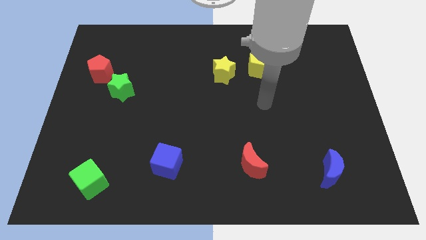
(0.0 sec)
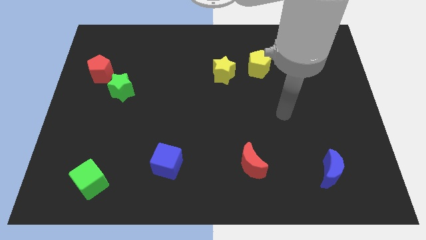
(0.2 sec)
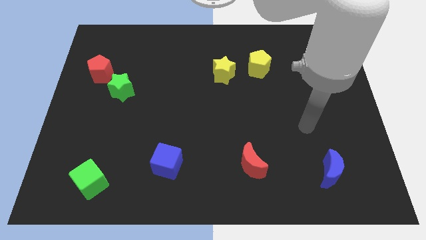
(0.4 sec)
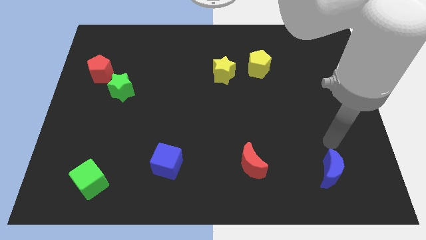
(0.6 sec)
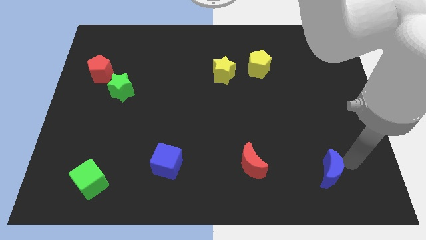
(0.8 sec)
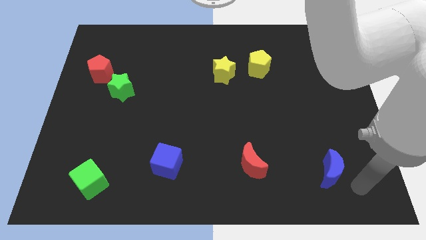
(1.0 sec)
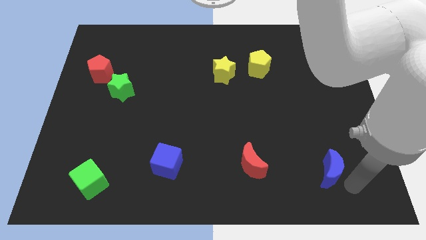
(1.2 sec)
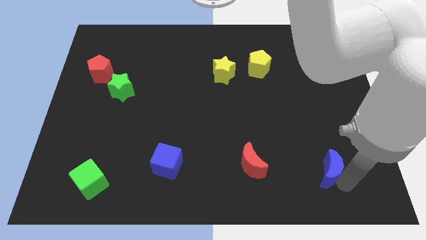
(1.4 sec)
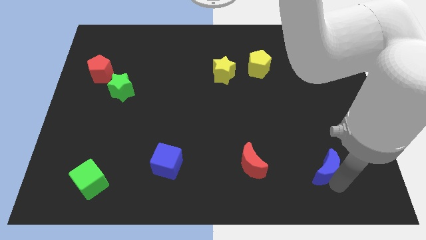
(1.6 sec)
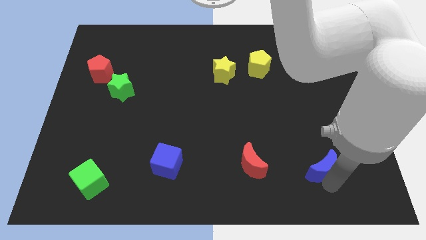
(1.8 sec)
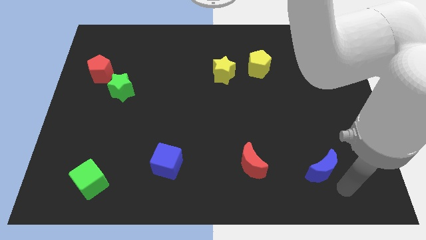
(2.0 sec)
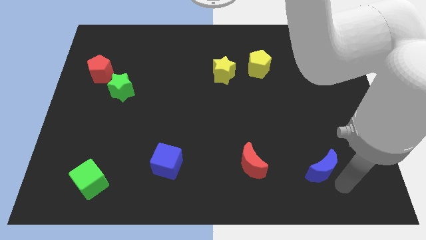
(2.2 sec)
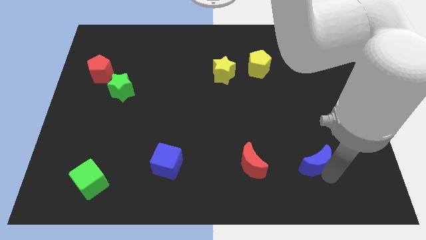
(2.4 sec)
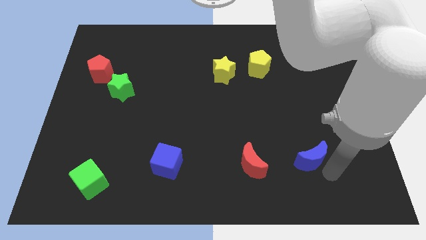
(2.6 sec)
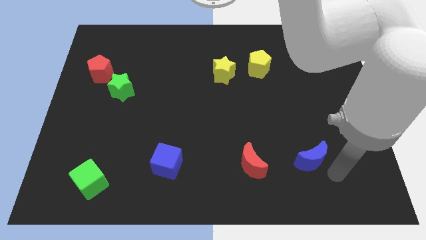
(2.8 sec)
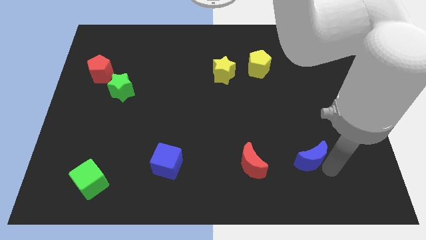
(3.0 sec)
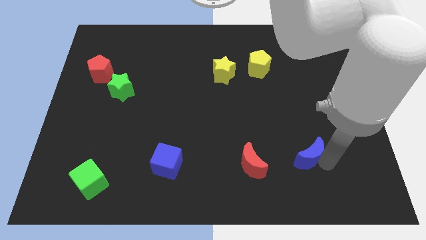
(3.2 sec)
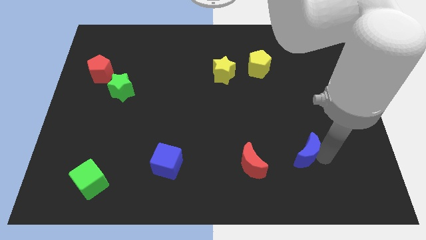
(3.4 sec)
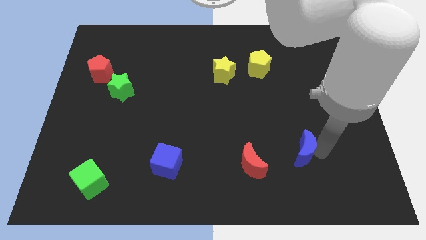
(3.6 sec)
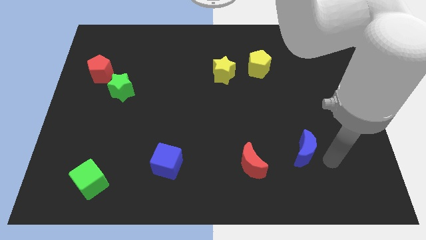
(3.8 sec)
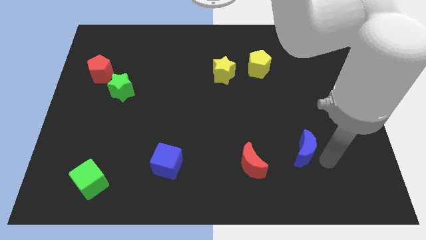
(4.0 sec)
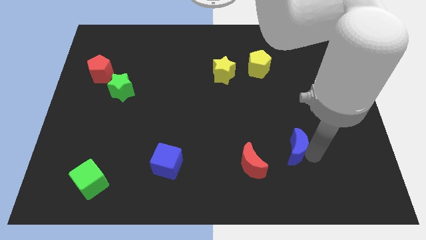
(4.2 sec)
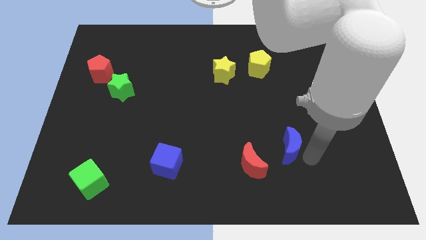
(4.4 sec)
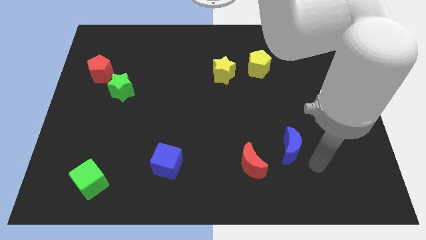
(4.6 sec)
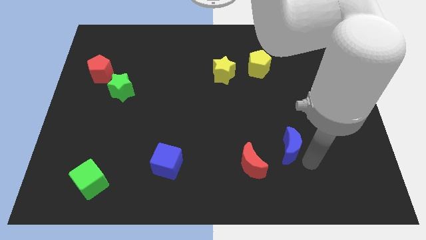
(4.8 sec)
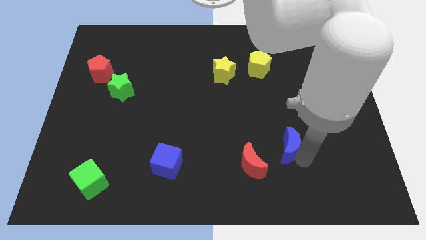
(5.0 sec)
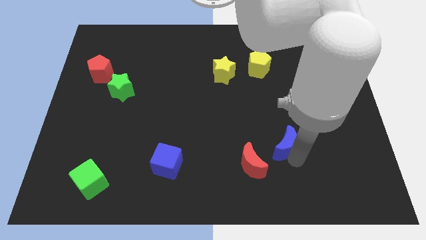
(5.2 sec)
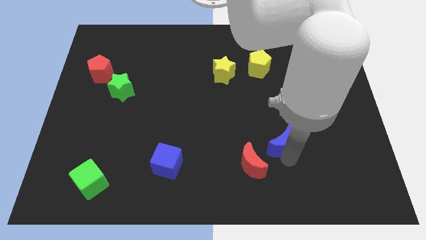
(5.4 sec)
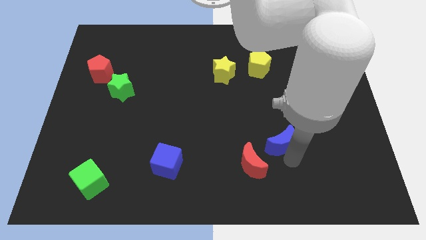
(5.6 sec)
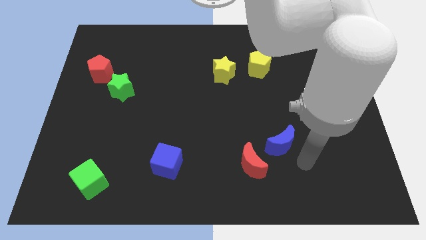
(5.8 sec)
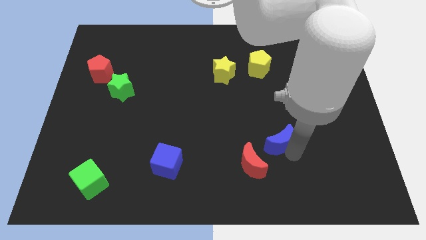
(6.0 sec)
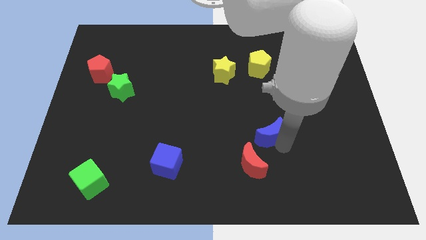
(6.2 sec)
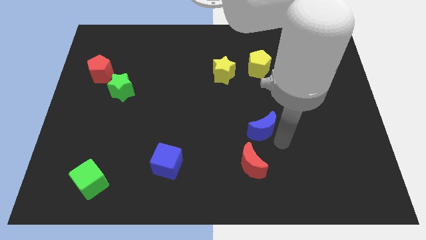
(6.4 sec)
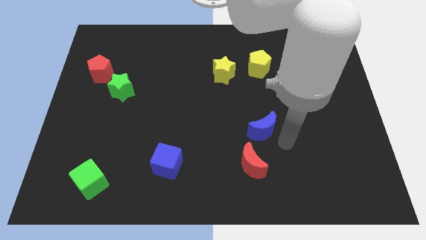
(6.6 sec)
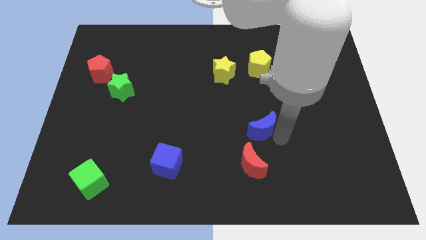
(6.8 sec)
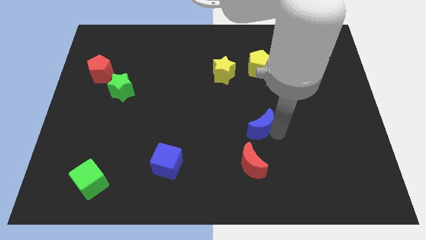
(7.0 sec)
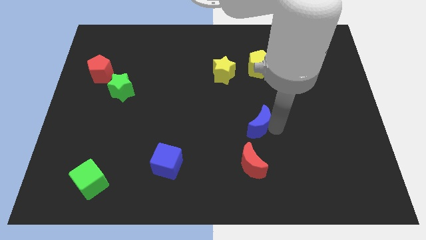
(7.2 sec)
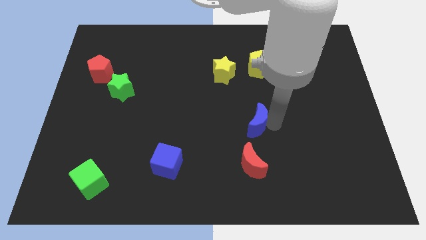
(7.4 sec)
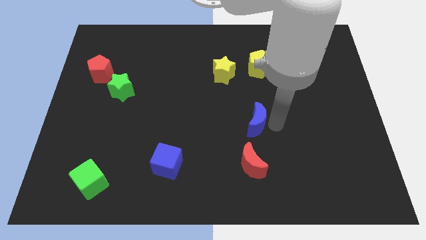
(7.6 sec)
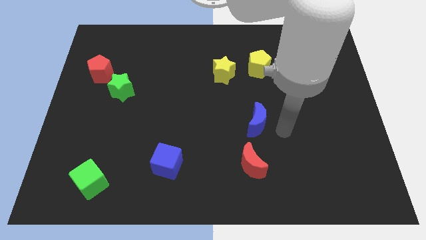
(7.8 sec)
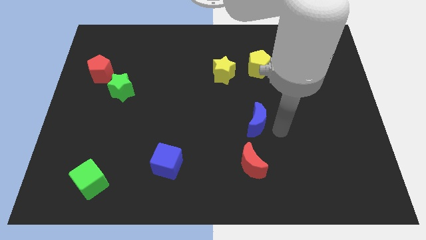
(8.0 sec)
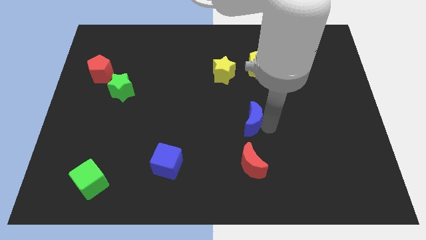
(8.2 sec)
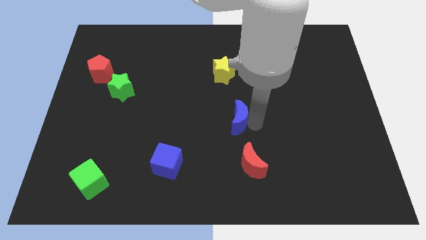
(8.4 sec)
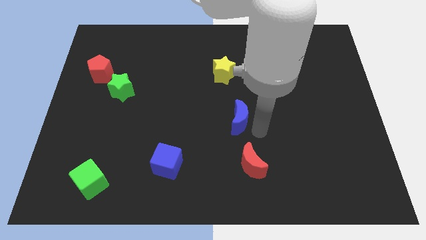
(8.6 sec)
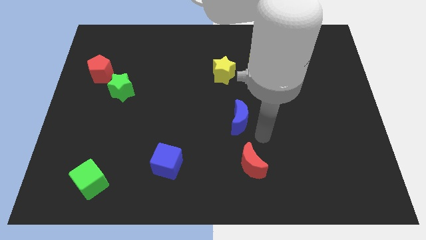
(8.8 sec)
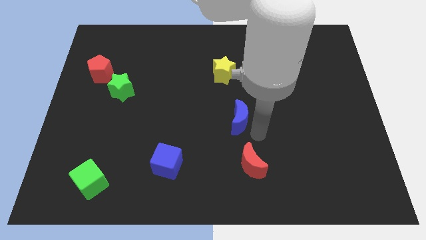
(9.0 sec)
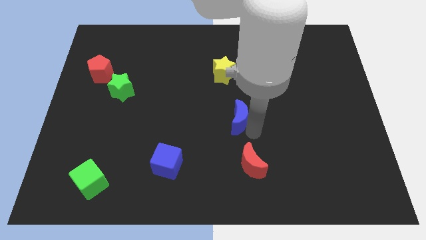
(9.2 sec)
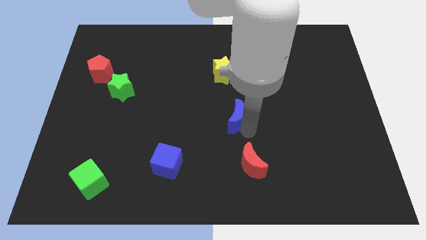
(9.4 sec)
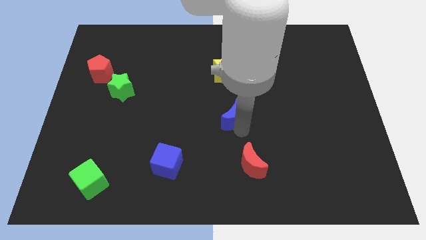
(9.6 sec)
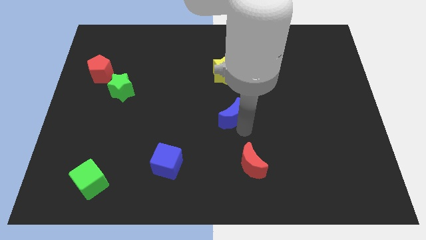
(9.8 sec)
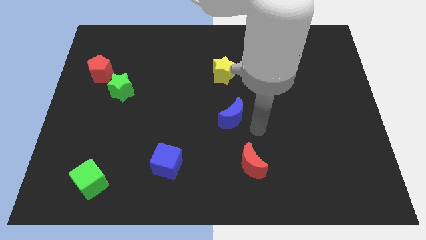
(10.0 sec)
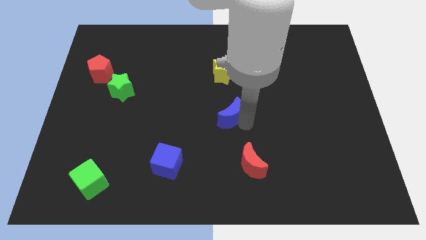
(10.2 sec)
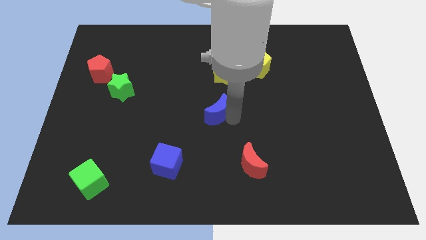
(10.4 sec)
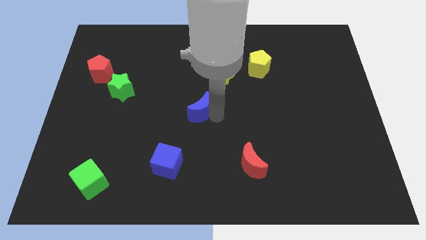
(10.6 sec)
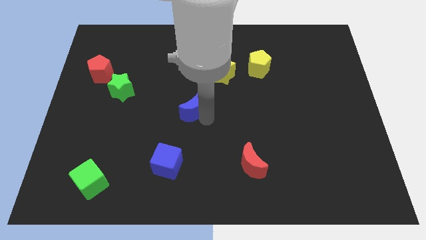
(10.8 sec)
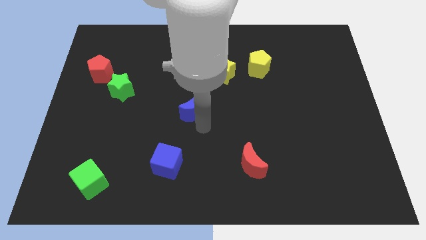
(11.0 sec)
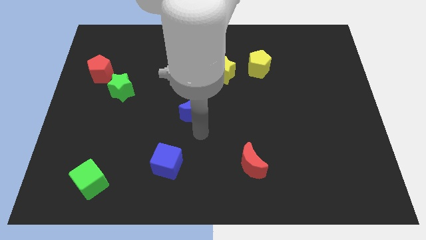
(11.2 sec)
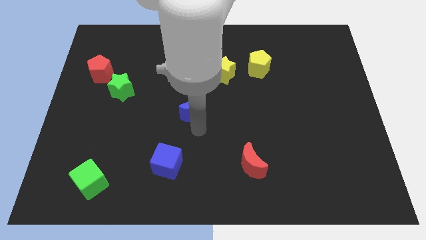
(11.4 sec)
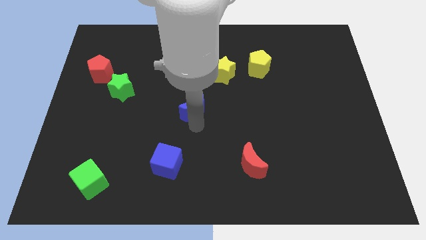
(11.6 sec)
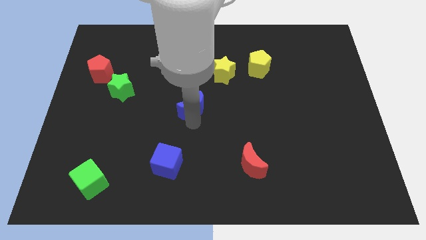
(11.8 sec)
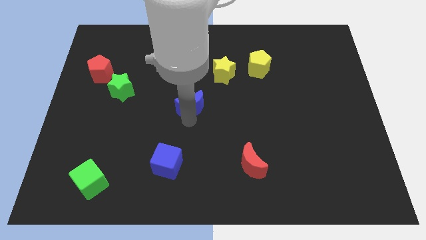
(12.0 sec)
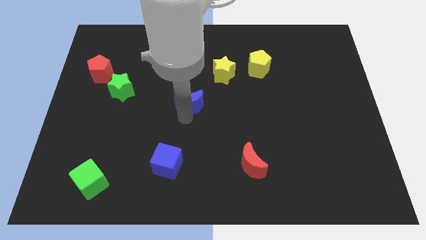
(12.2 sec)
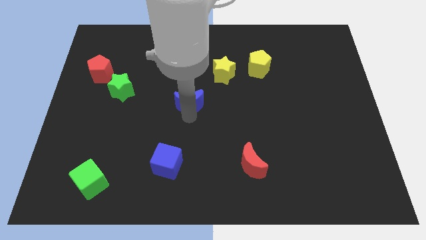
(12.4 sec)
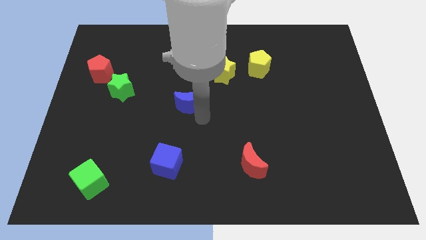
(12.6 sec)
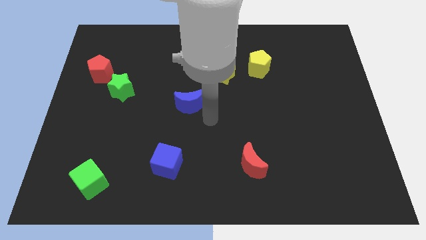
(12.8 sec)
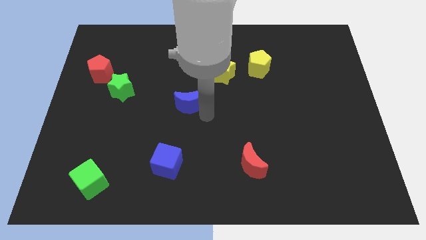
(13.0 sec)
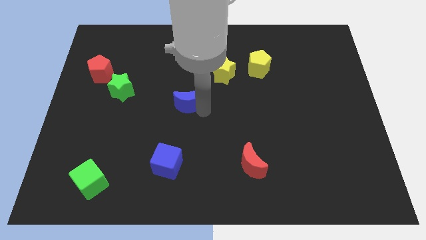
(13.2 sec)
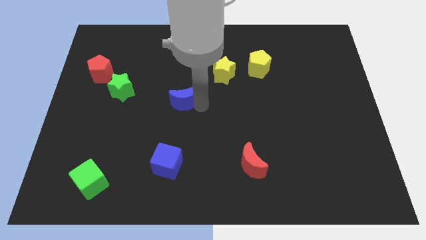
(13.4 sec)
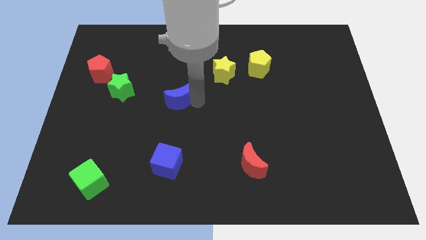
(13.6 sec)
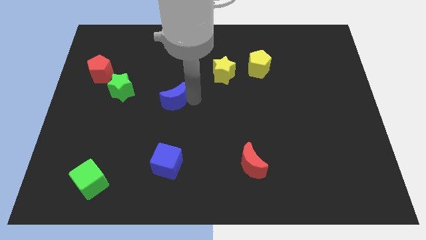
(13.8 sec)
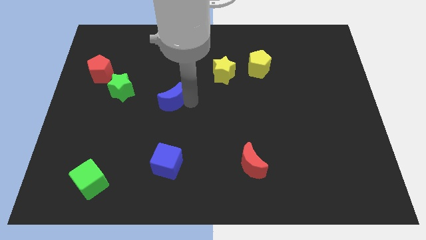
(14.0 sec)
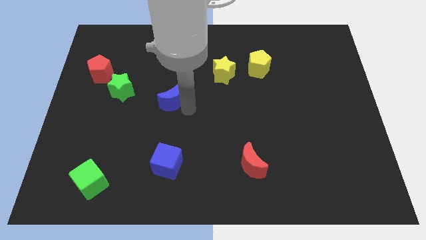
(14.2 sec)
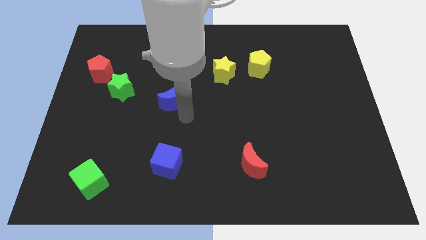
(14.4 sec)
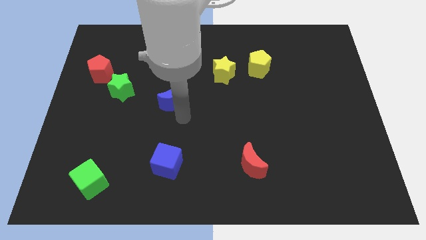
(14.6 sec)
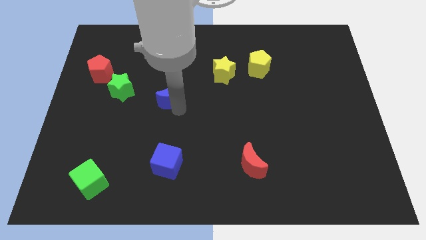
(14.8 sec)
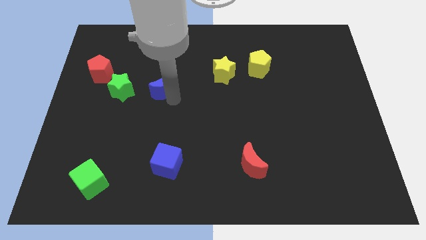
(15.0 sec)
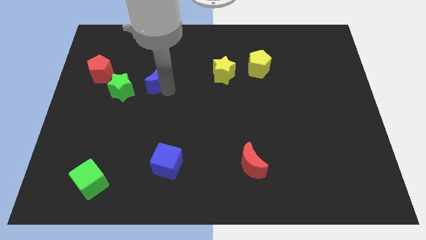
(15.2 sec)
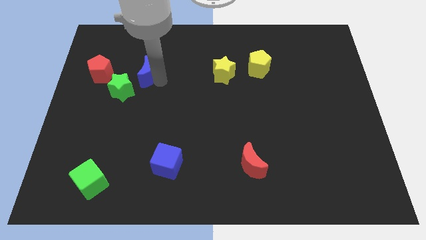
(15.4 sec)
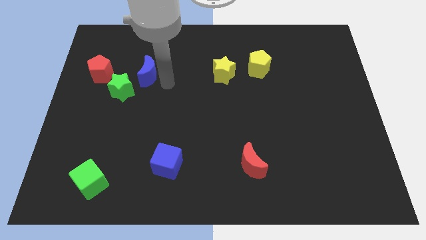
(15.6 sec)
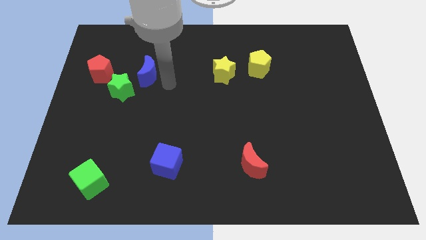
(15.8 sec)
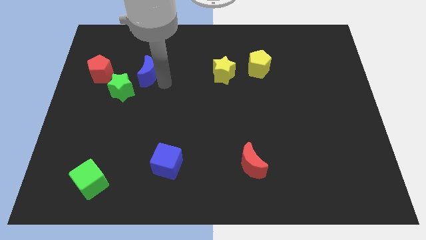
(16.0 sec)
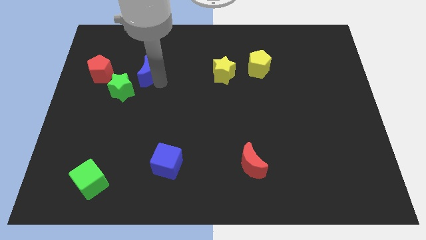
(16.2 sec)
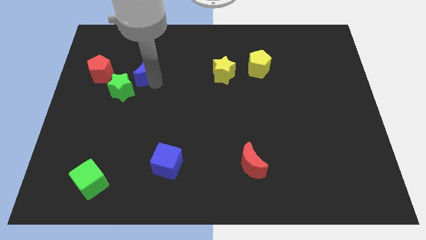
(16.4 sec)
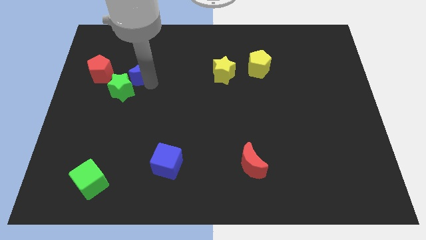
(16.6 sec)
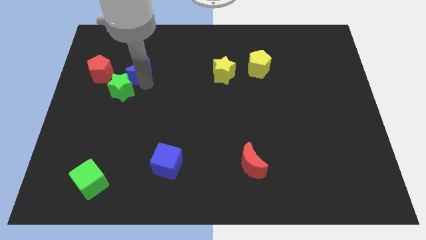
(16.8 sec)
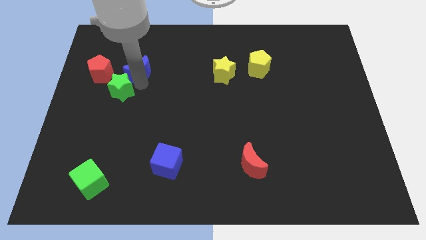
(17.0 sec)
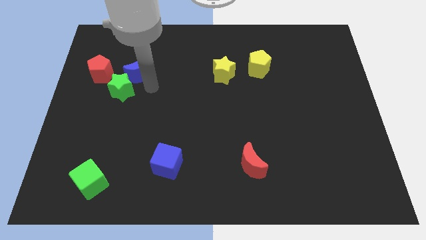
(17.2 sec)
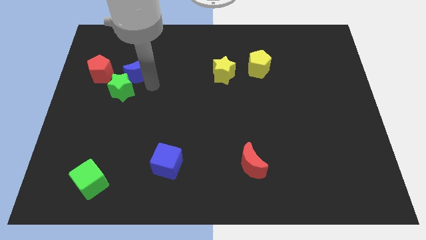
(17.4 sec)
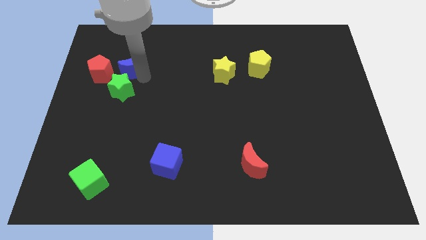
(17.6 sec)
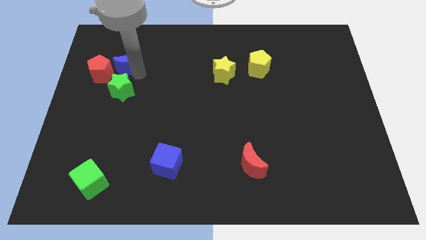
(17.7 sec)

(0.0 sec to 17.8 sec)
slide the blue moon to the top right of the red pentagon
